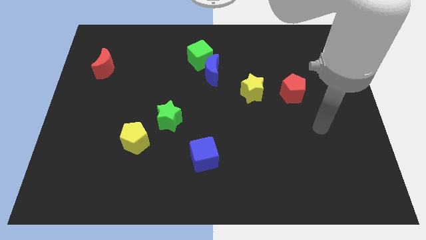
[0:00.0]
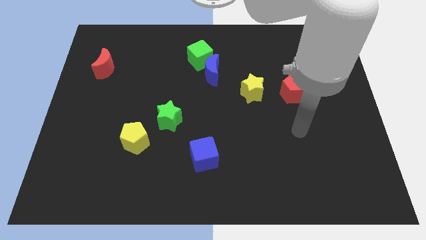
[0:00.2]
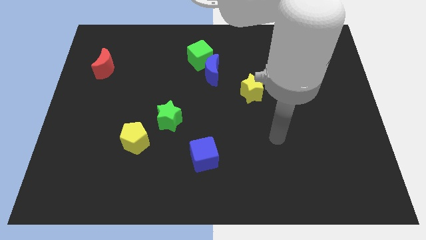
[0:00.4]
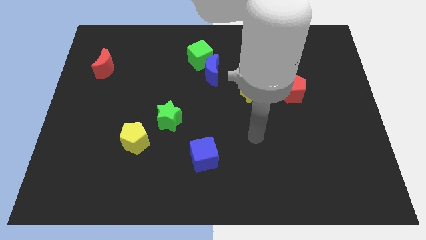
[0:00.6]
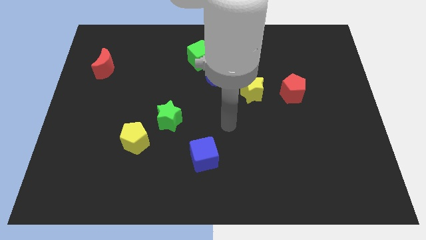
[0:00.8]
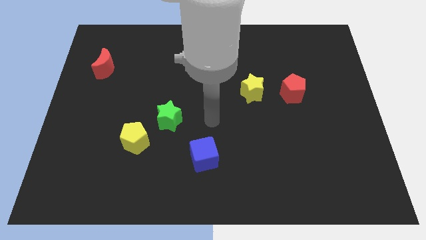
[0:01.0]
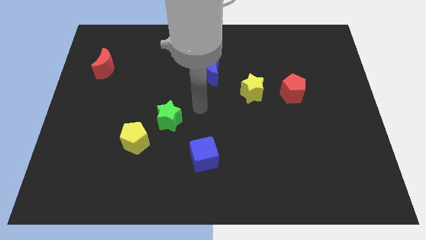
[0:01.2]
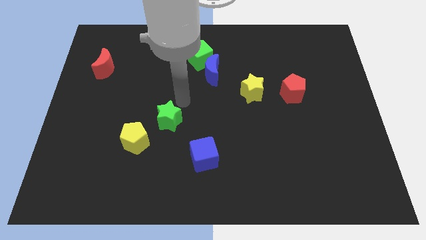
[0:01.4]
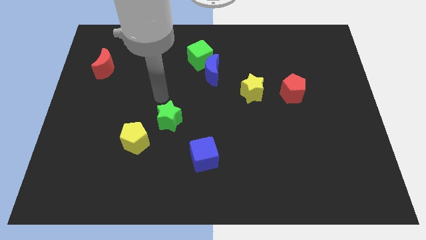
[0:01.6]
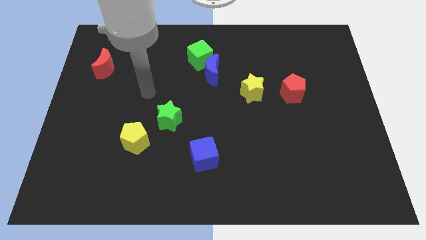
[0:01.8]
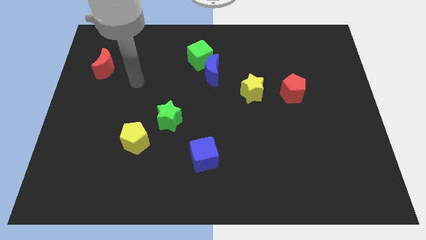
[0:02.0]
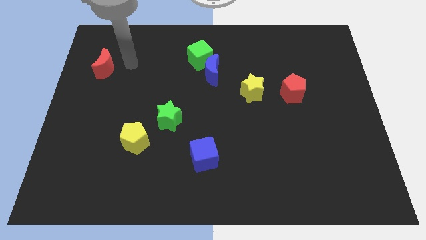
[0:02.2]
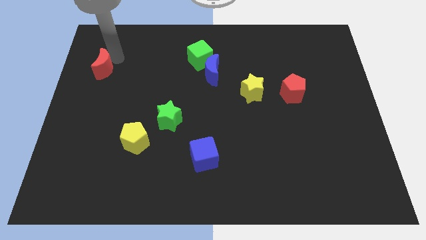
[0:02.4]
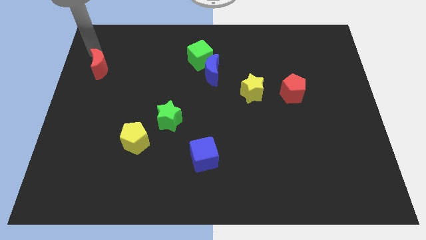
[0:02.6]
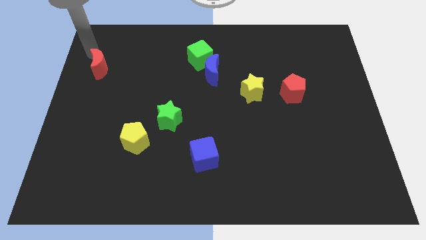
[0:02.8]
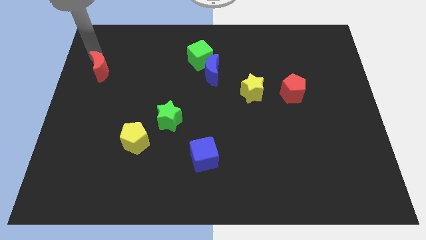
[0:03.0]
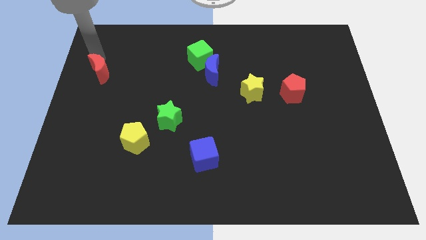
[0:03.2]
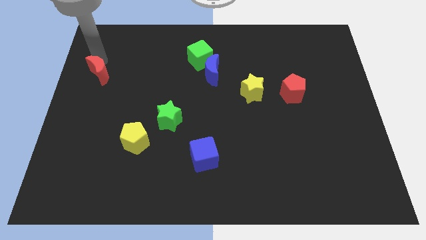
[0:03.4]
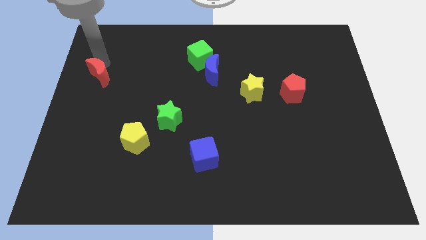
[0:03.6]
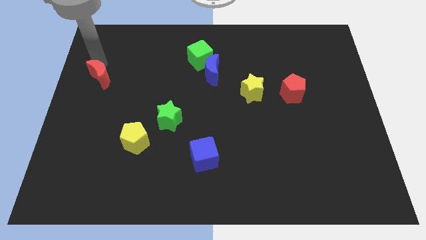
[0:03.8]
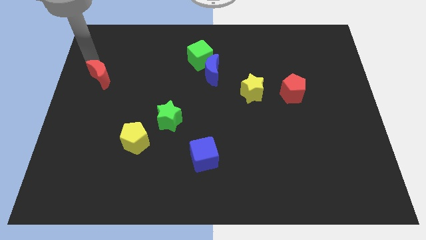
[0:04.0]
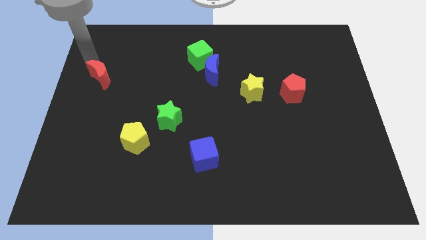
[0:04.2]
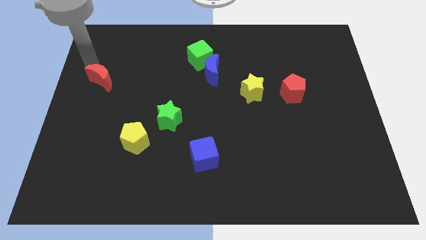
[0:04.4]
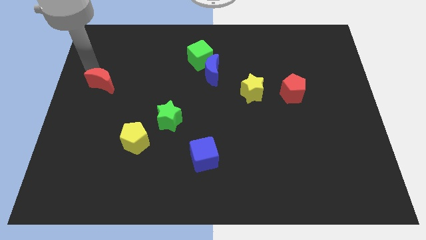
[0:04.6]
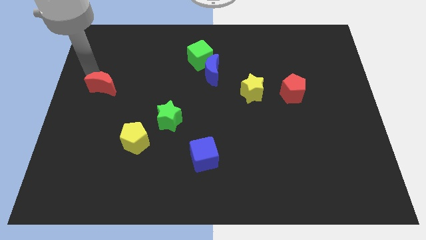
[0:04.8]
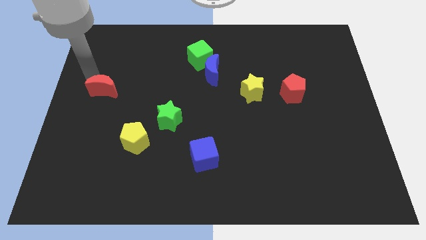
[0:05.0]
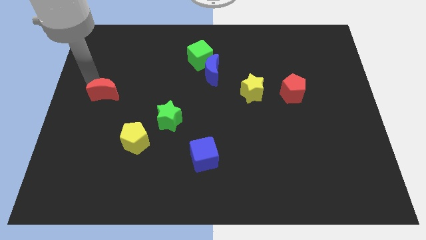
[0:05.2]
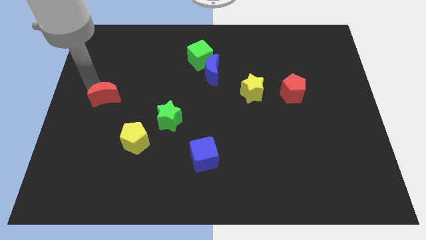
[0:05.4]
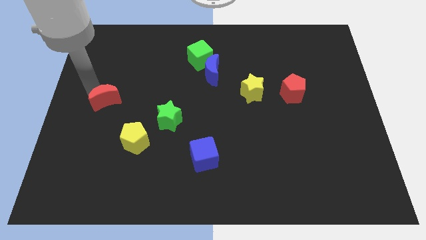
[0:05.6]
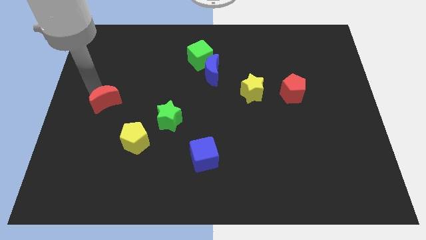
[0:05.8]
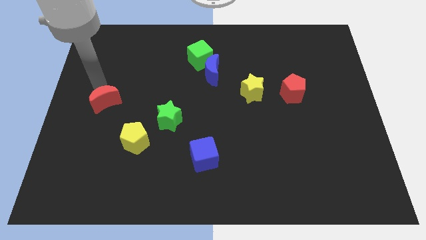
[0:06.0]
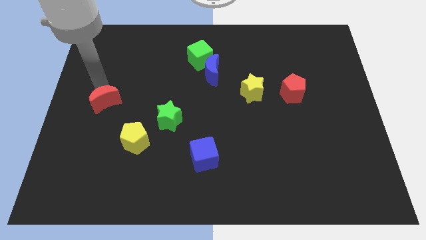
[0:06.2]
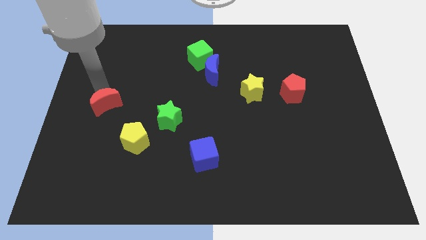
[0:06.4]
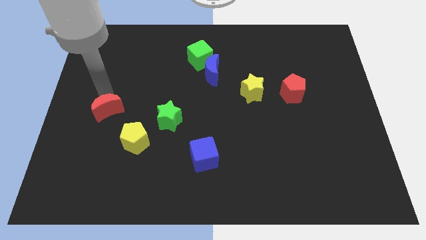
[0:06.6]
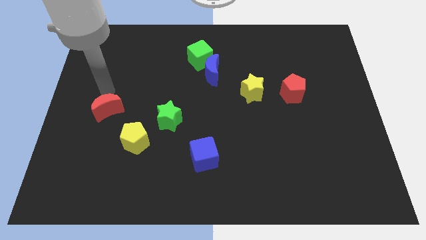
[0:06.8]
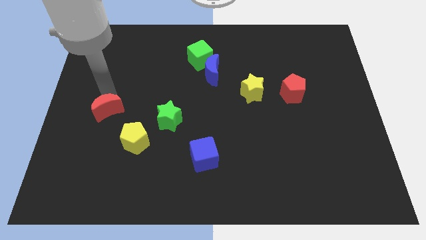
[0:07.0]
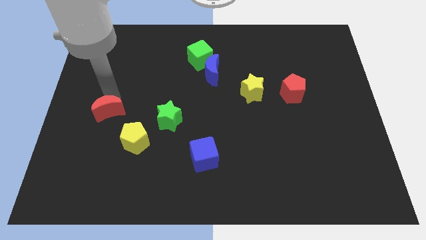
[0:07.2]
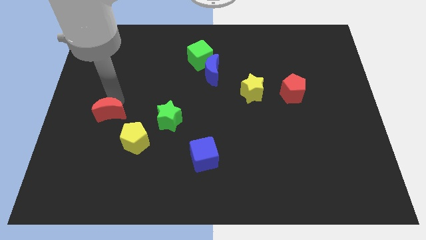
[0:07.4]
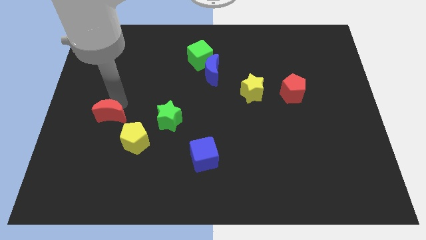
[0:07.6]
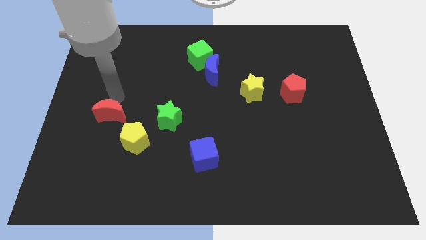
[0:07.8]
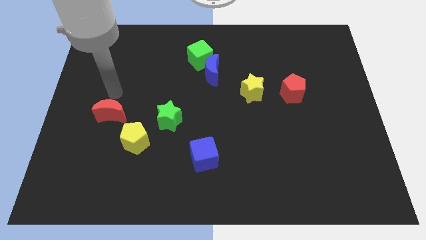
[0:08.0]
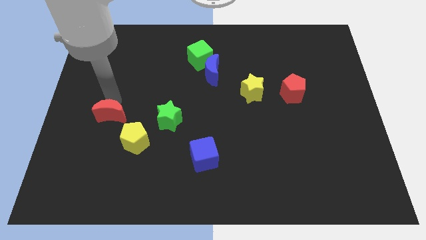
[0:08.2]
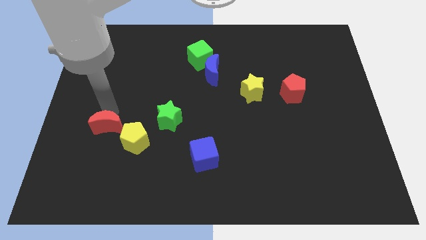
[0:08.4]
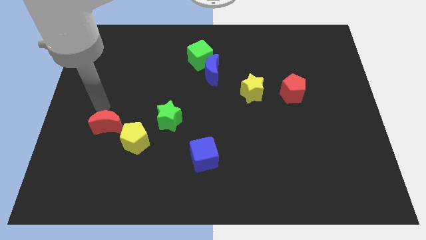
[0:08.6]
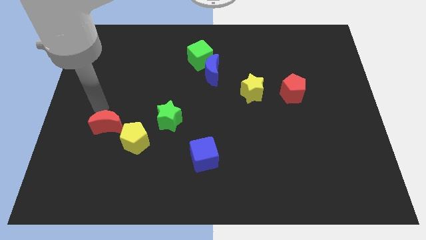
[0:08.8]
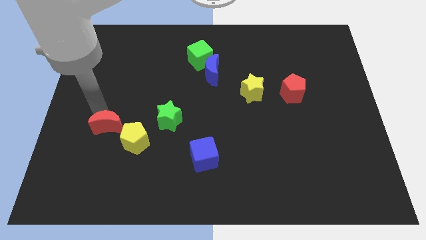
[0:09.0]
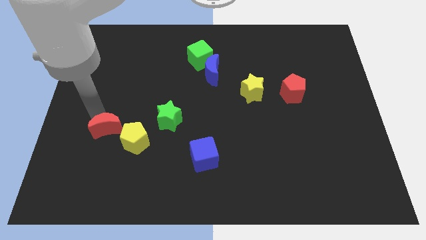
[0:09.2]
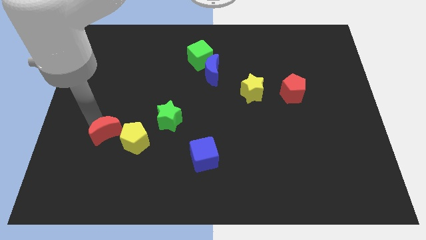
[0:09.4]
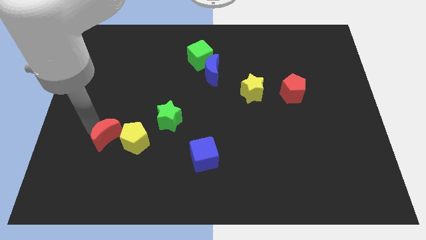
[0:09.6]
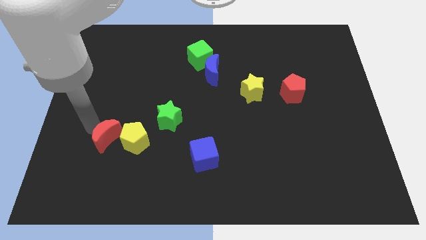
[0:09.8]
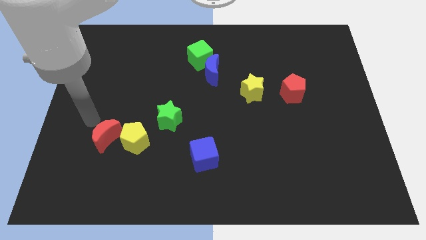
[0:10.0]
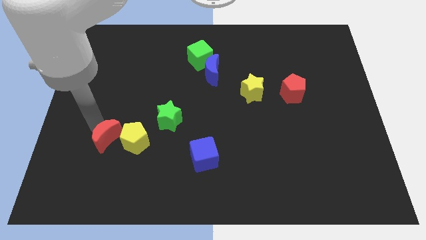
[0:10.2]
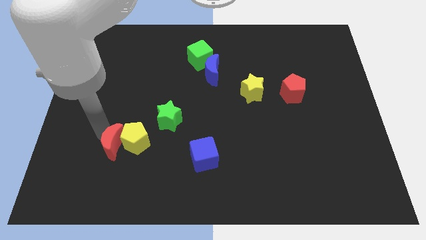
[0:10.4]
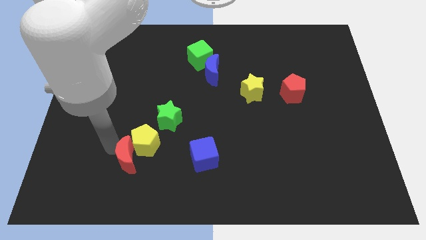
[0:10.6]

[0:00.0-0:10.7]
move the red moon to the left side of the blue cube
